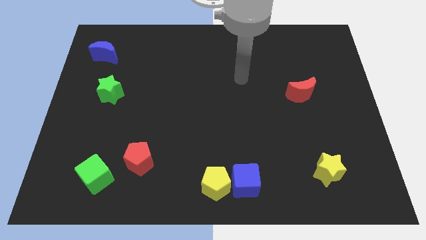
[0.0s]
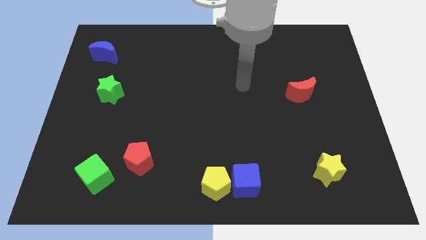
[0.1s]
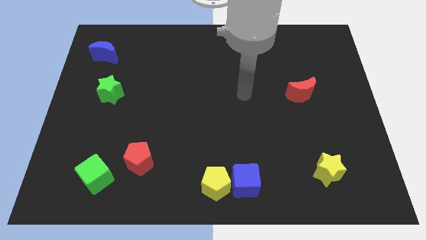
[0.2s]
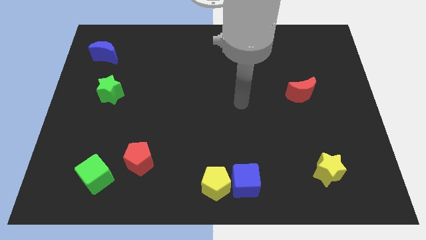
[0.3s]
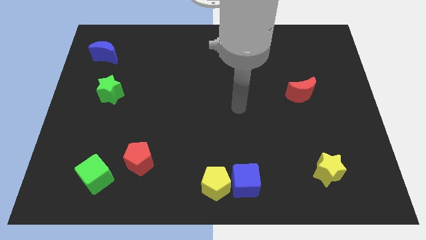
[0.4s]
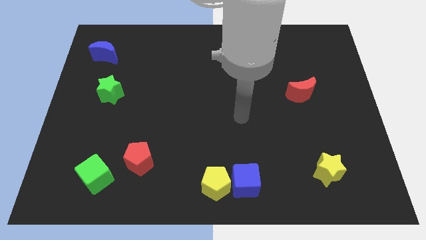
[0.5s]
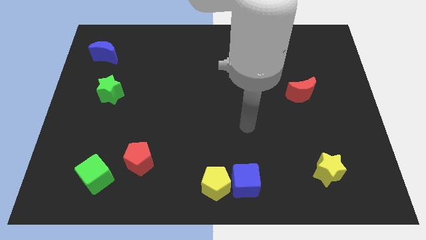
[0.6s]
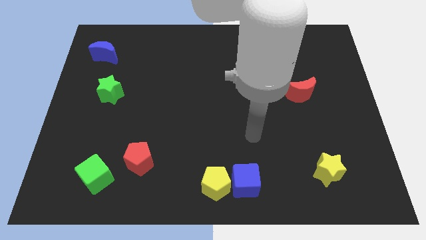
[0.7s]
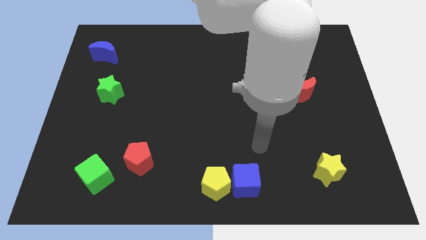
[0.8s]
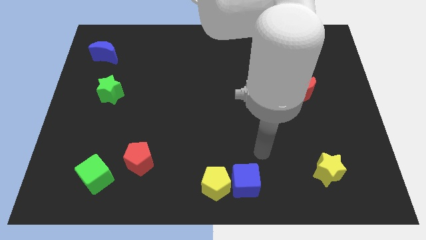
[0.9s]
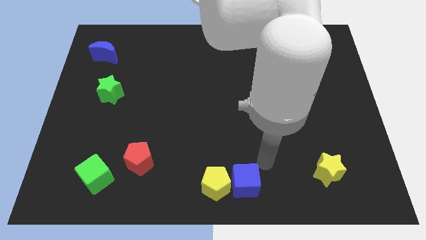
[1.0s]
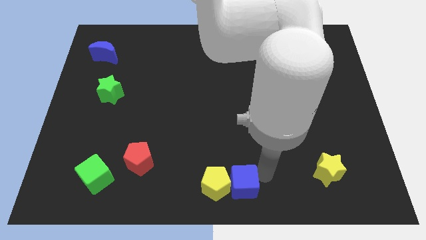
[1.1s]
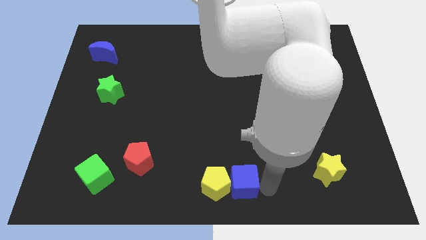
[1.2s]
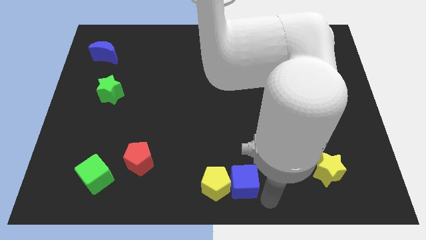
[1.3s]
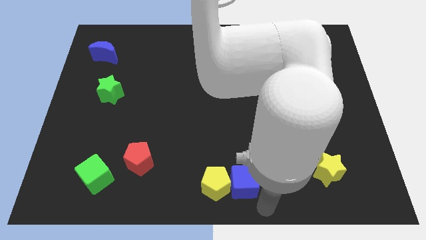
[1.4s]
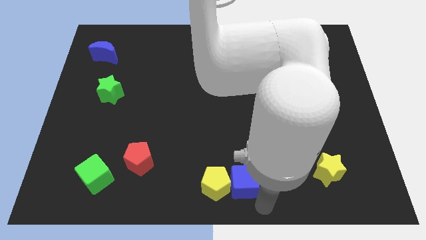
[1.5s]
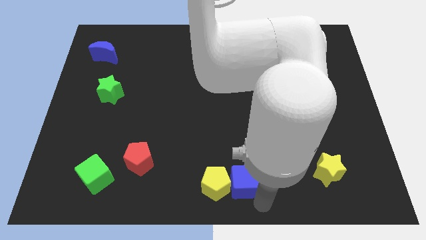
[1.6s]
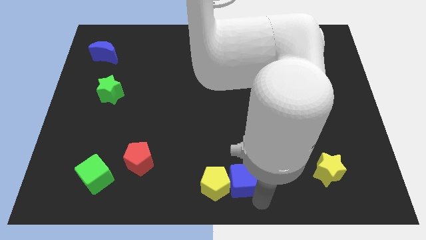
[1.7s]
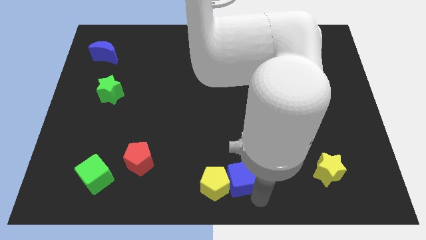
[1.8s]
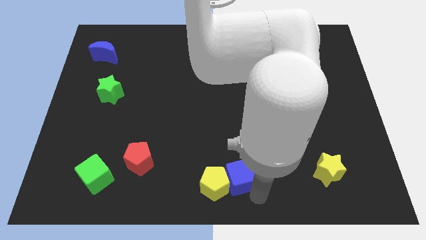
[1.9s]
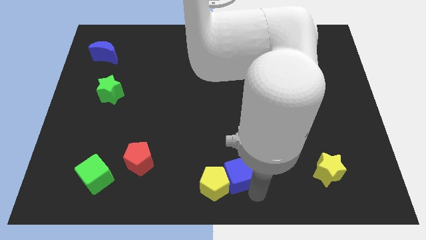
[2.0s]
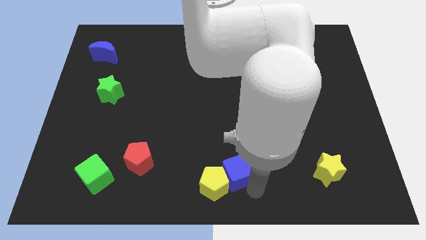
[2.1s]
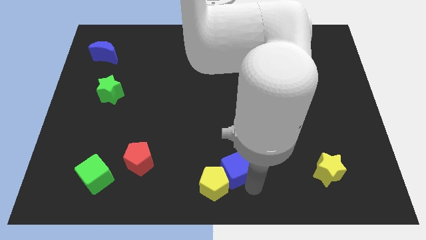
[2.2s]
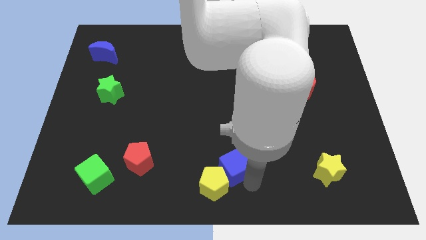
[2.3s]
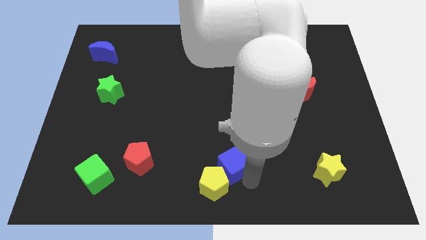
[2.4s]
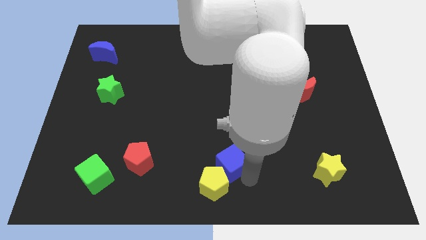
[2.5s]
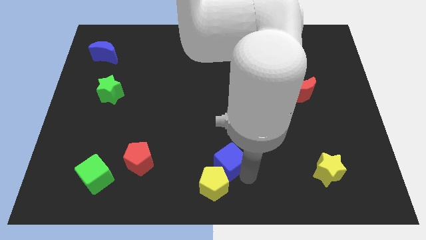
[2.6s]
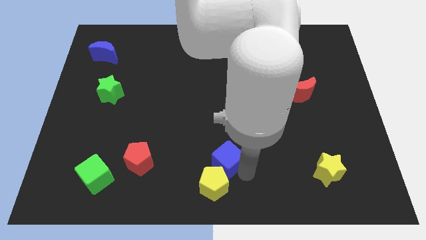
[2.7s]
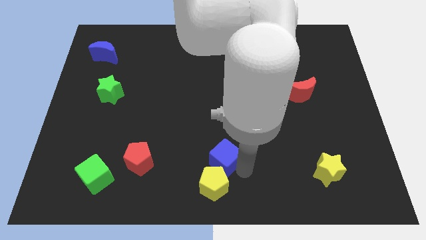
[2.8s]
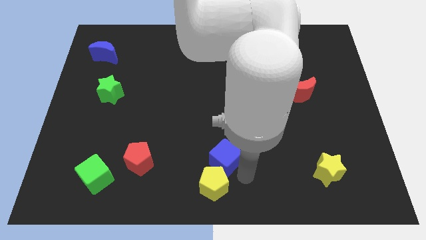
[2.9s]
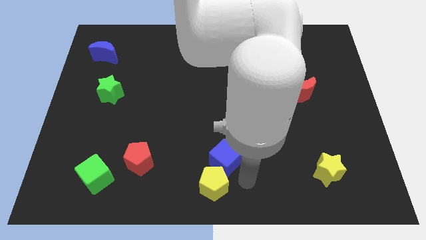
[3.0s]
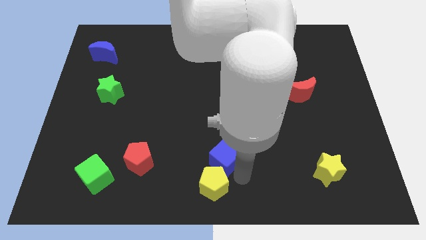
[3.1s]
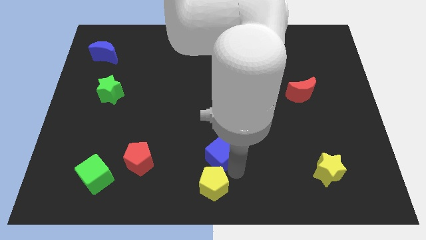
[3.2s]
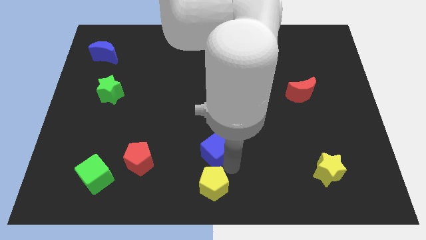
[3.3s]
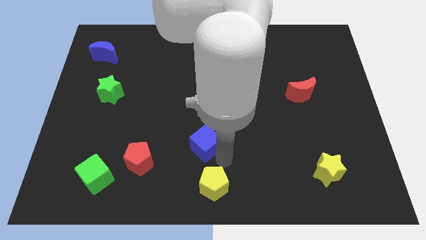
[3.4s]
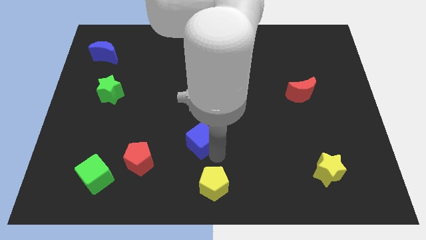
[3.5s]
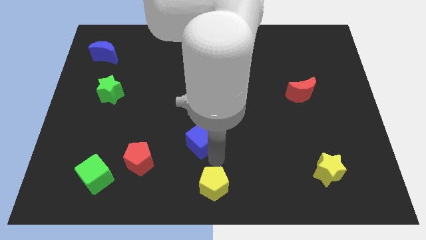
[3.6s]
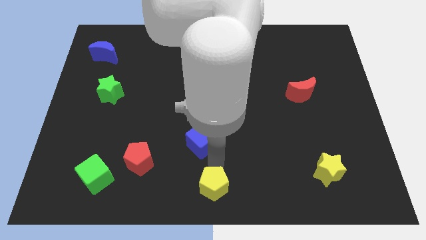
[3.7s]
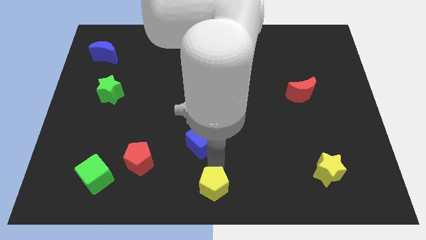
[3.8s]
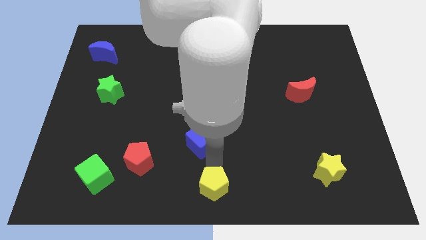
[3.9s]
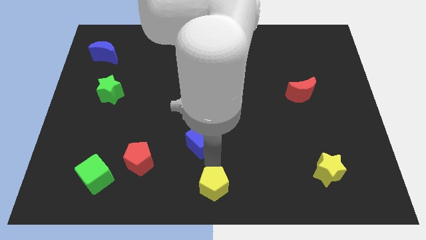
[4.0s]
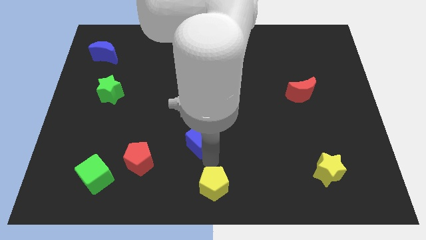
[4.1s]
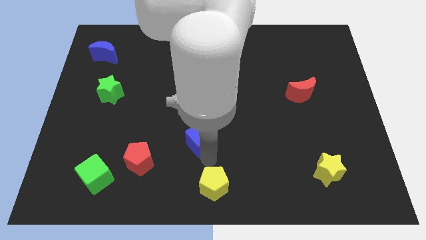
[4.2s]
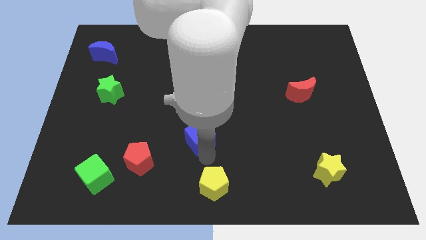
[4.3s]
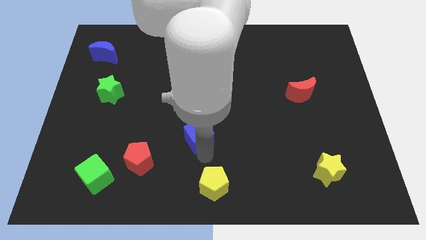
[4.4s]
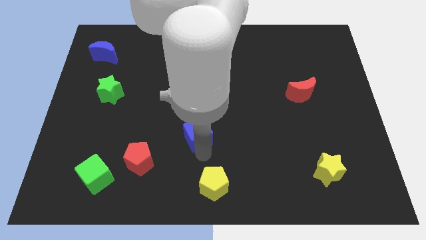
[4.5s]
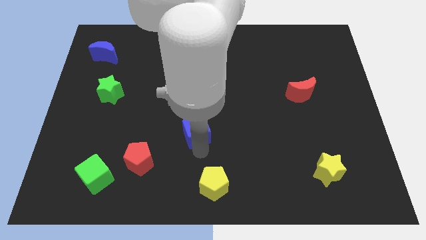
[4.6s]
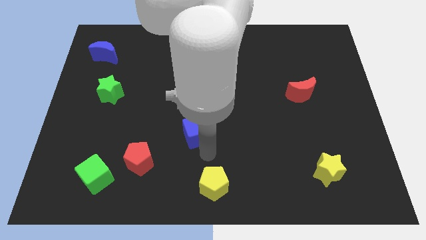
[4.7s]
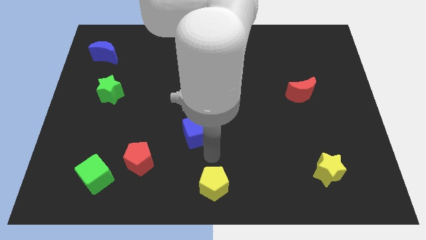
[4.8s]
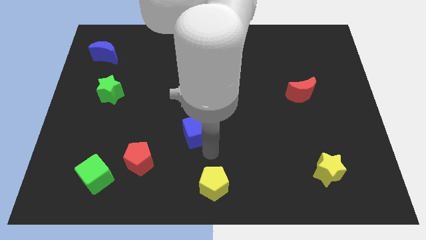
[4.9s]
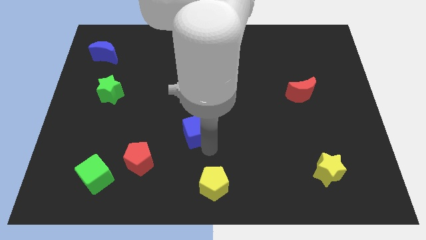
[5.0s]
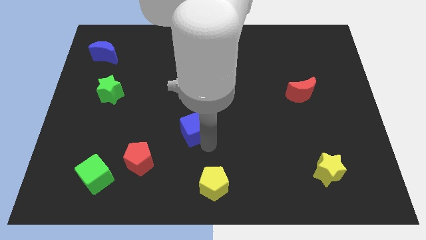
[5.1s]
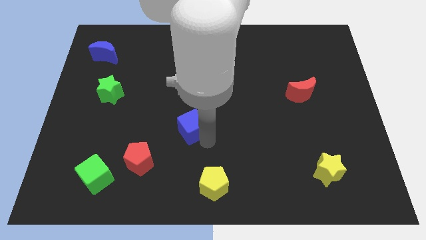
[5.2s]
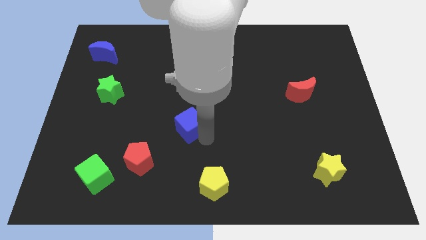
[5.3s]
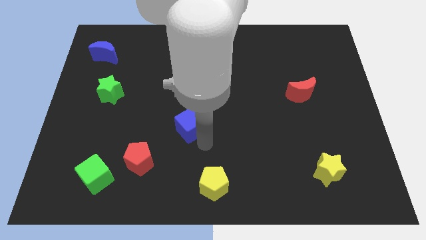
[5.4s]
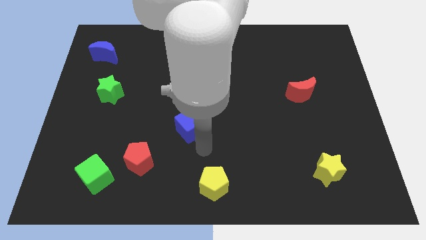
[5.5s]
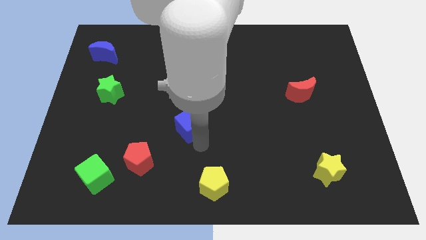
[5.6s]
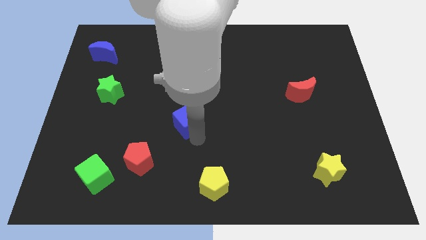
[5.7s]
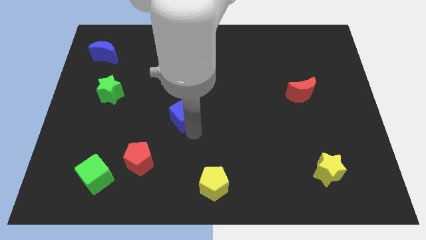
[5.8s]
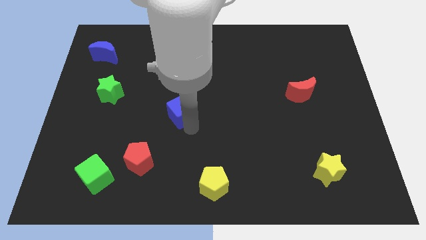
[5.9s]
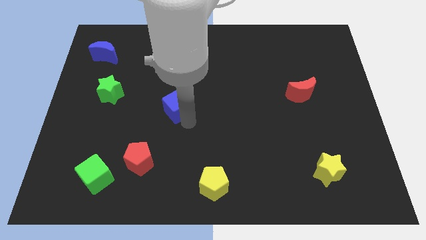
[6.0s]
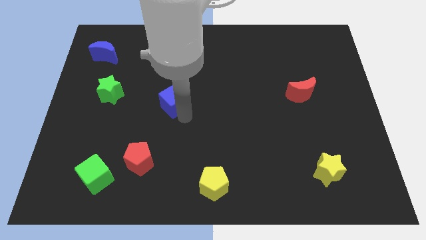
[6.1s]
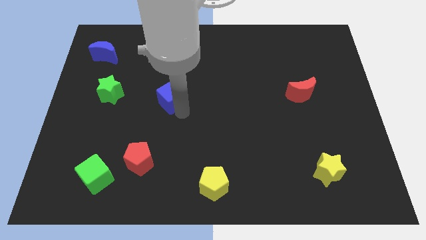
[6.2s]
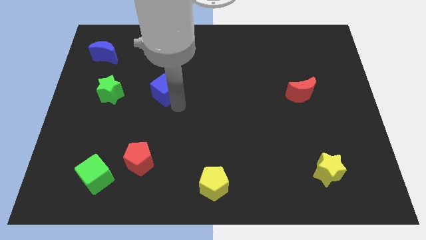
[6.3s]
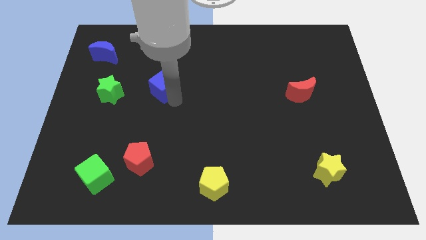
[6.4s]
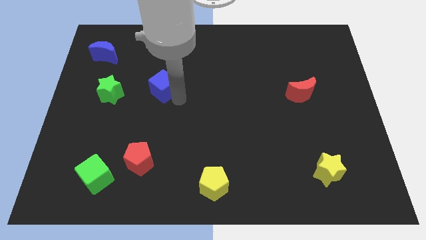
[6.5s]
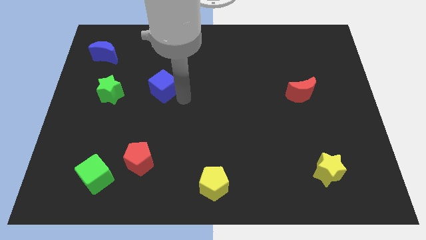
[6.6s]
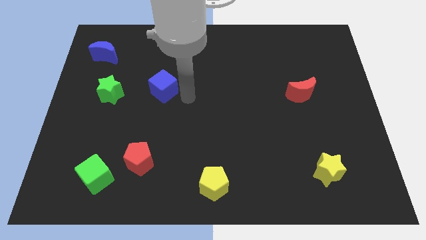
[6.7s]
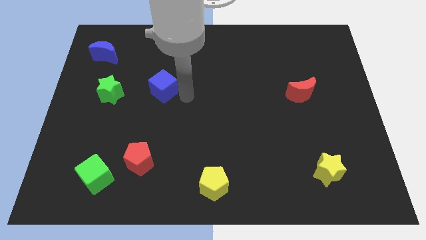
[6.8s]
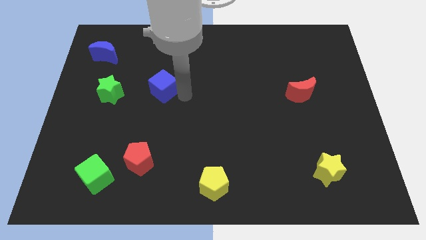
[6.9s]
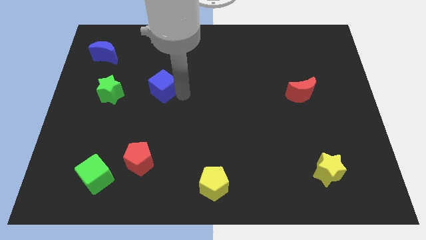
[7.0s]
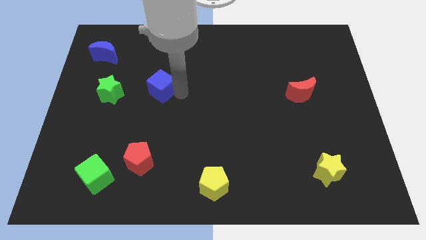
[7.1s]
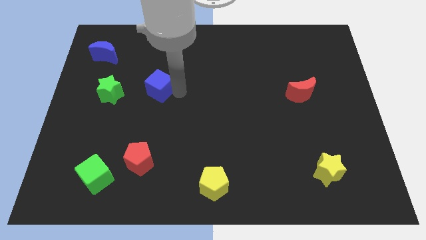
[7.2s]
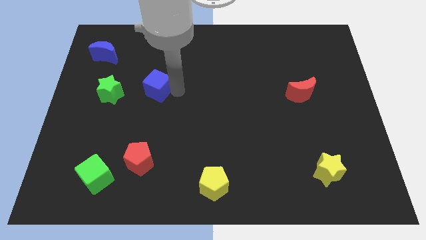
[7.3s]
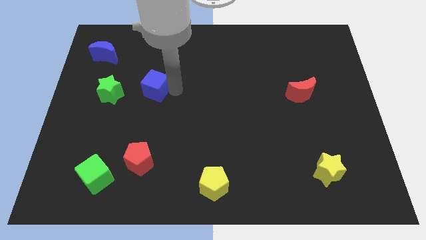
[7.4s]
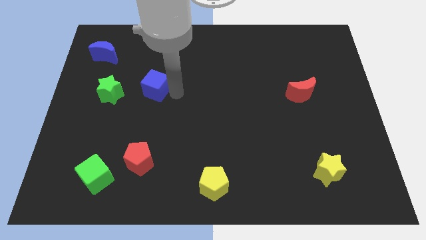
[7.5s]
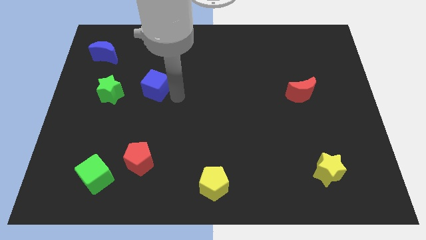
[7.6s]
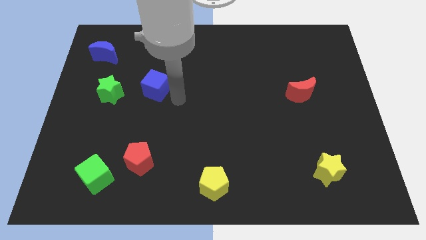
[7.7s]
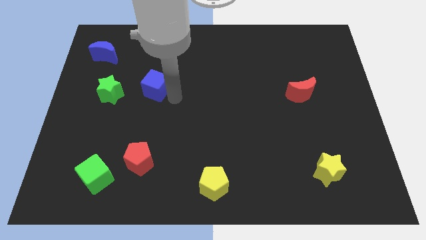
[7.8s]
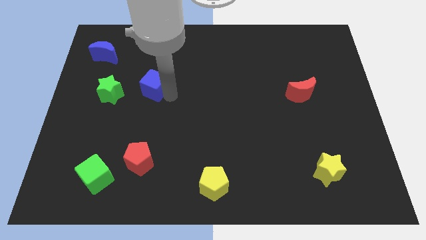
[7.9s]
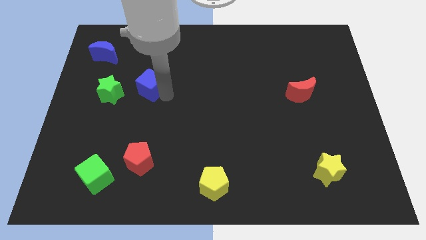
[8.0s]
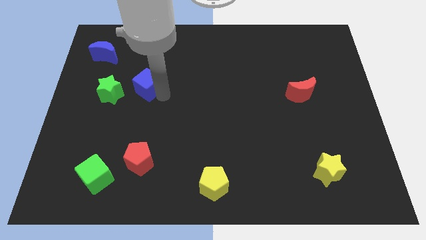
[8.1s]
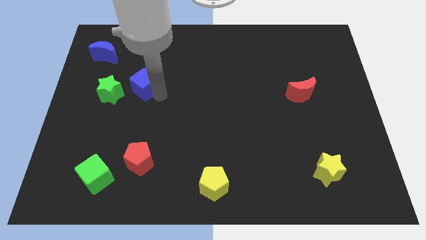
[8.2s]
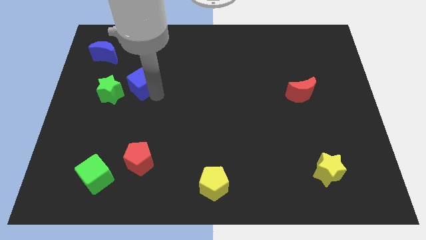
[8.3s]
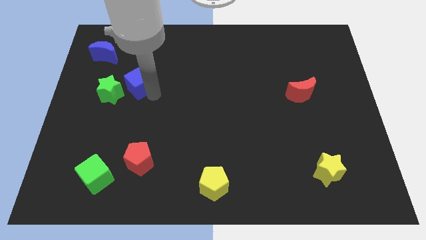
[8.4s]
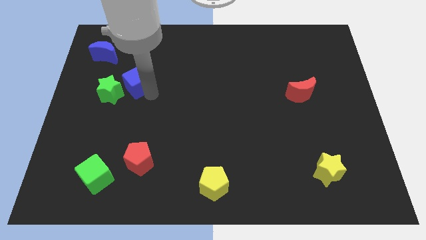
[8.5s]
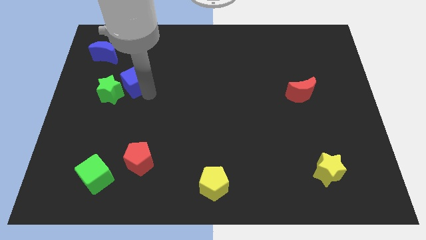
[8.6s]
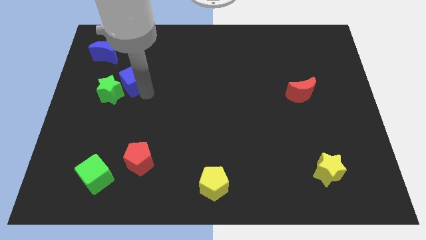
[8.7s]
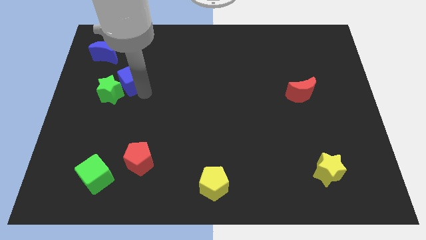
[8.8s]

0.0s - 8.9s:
move the blue cube above the green star
